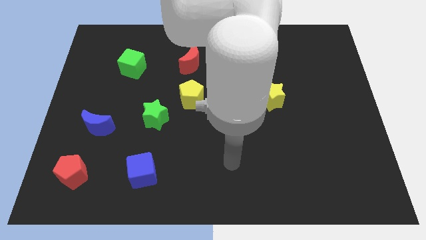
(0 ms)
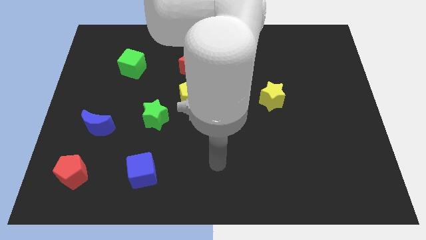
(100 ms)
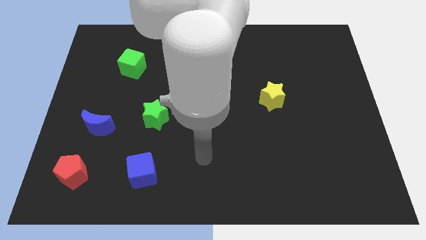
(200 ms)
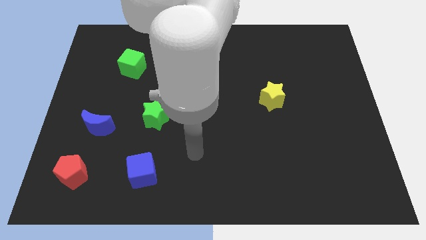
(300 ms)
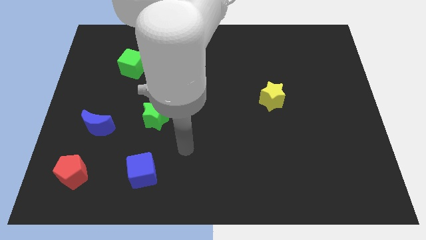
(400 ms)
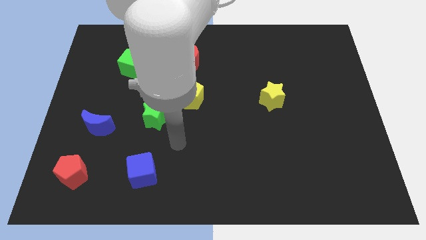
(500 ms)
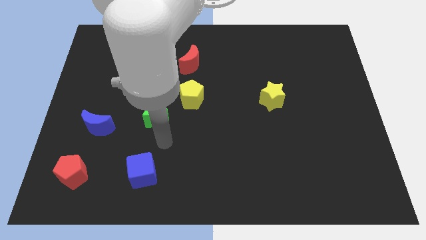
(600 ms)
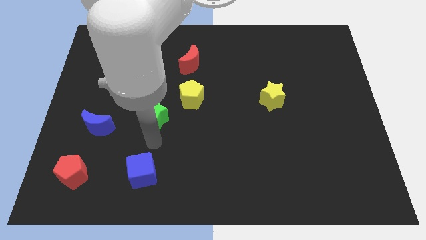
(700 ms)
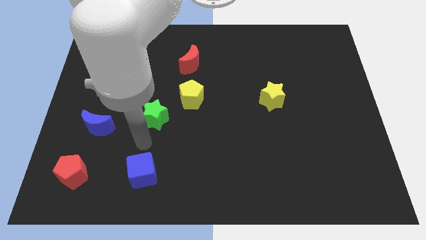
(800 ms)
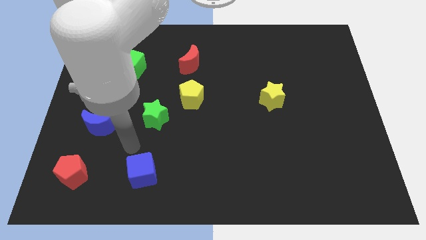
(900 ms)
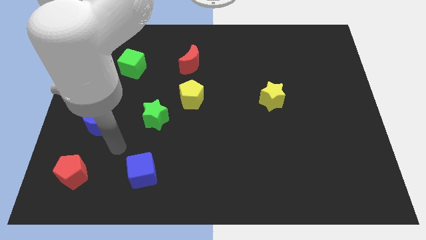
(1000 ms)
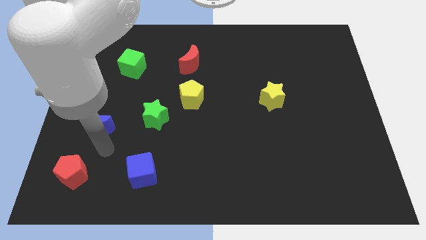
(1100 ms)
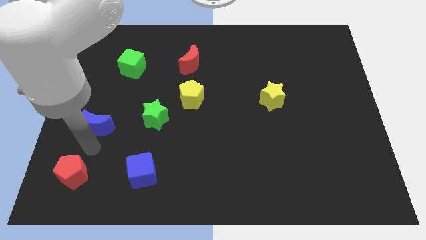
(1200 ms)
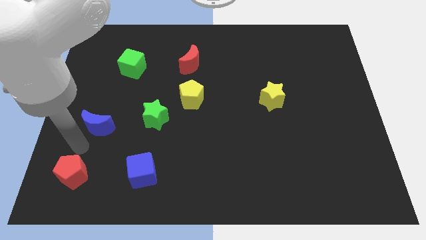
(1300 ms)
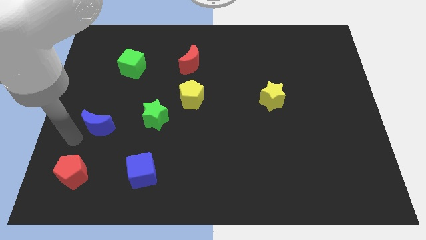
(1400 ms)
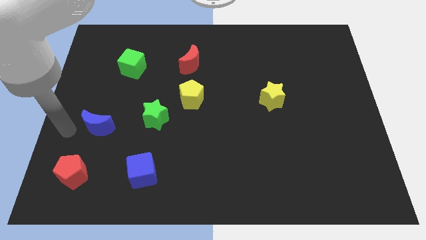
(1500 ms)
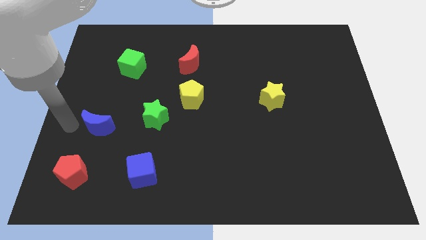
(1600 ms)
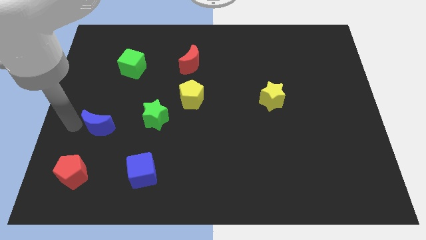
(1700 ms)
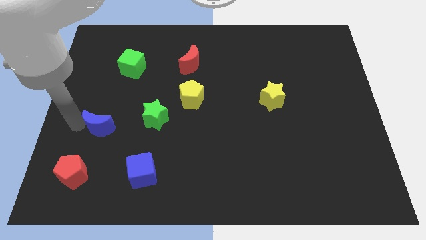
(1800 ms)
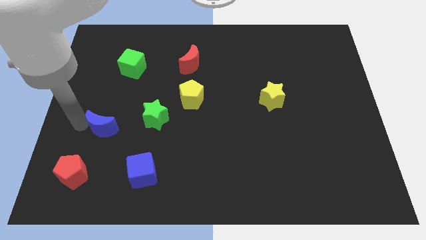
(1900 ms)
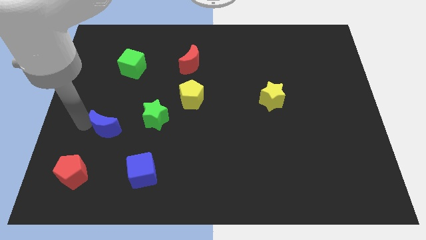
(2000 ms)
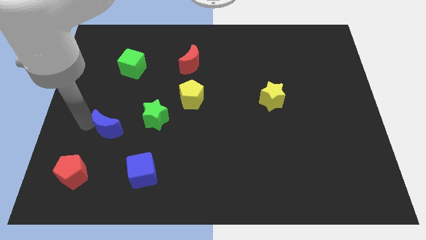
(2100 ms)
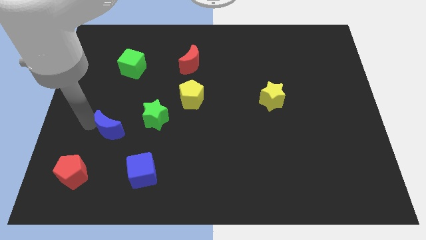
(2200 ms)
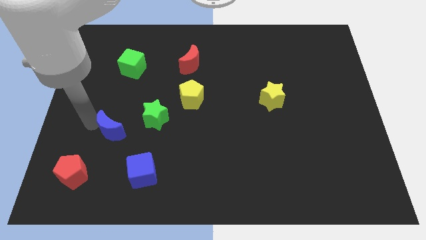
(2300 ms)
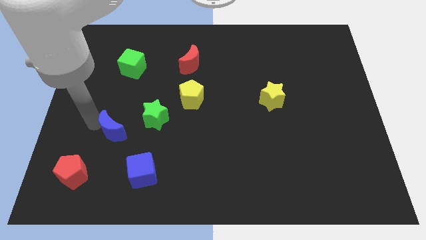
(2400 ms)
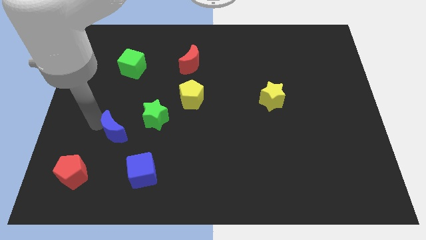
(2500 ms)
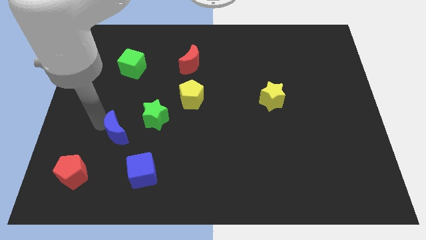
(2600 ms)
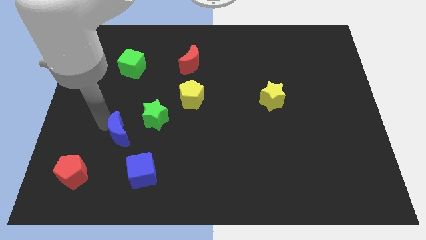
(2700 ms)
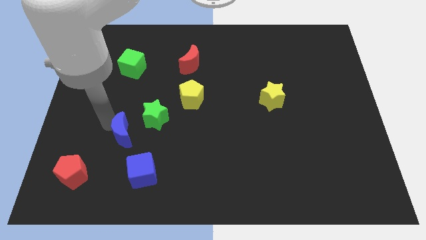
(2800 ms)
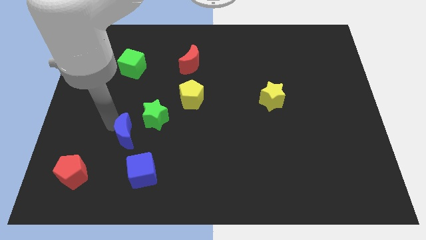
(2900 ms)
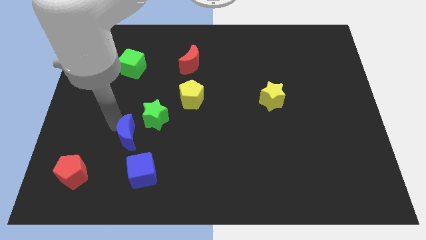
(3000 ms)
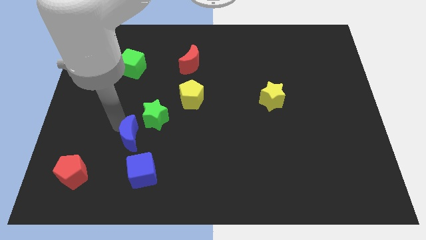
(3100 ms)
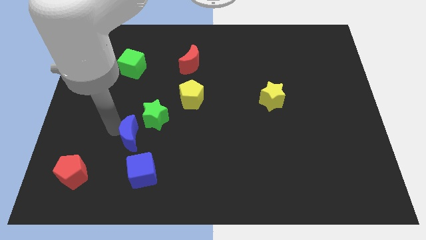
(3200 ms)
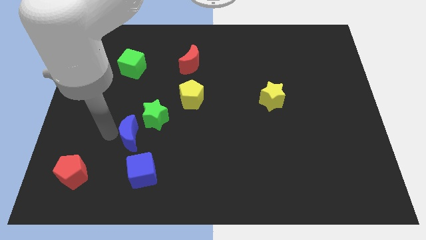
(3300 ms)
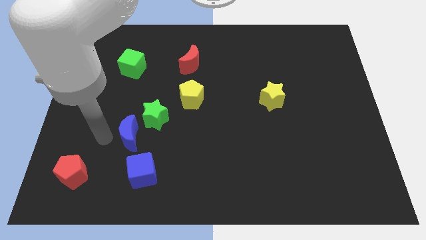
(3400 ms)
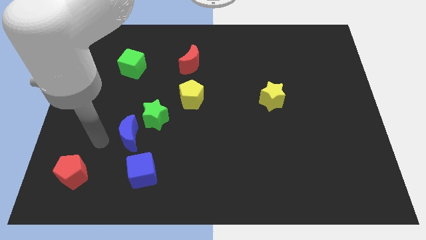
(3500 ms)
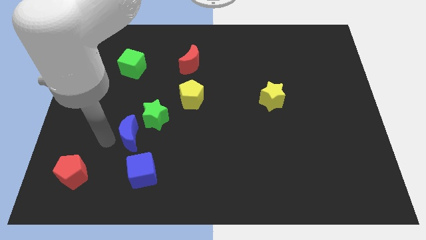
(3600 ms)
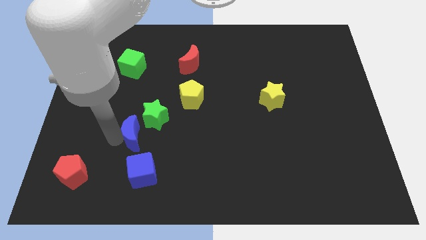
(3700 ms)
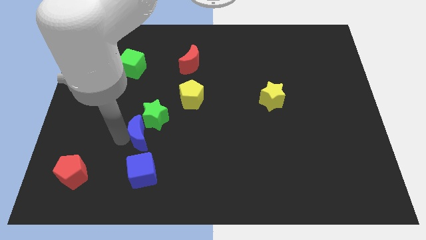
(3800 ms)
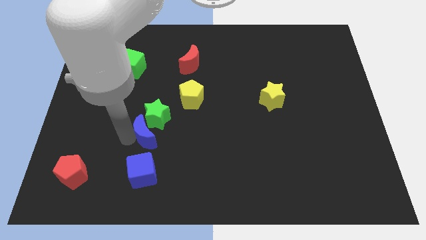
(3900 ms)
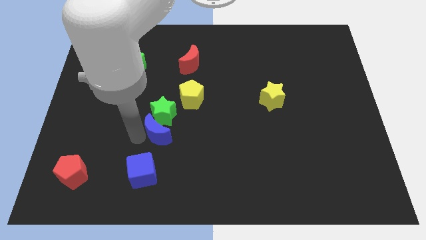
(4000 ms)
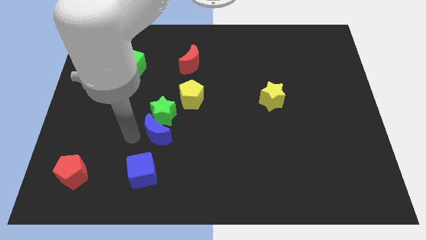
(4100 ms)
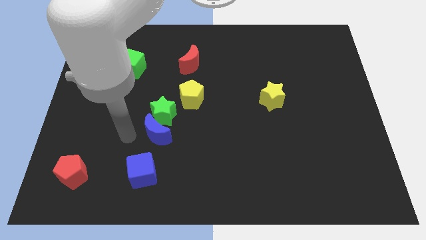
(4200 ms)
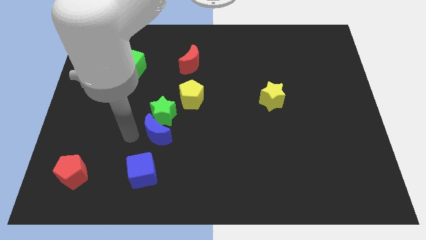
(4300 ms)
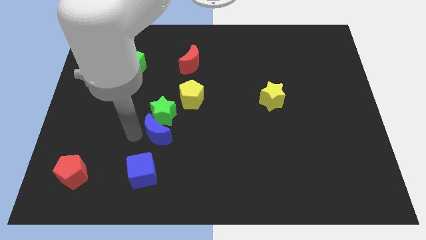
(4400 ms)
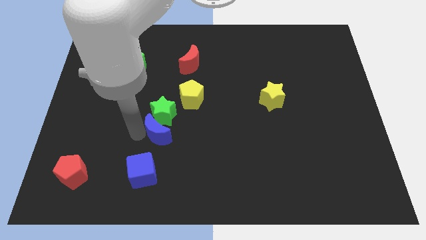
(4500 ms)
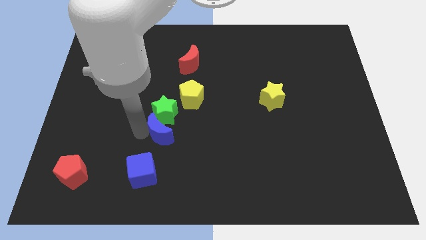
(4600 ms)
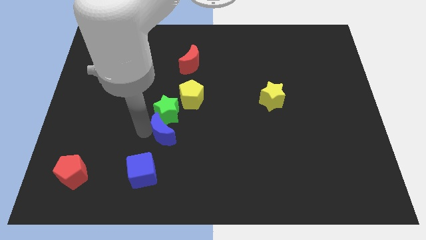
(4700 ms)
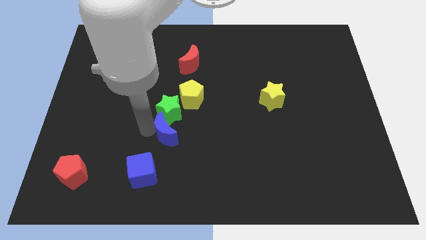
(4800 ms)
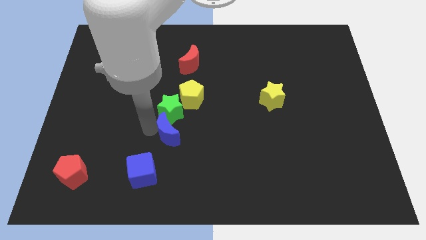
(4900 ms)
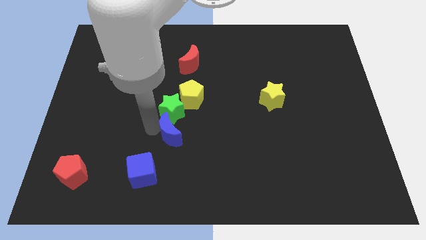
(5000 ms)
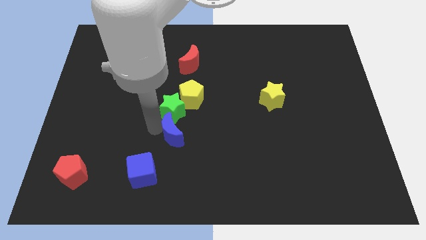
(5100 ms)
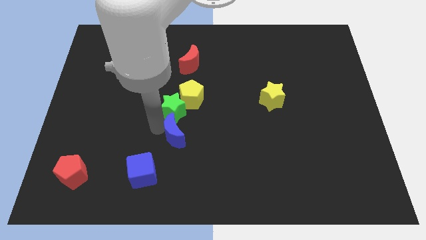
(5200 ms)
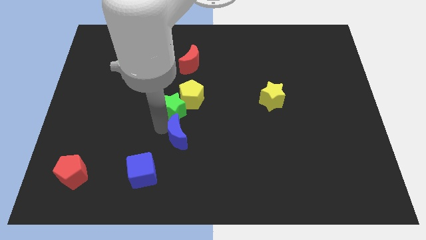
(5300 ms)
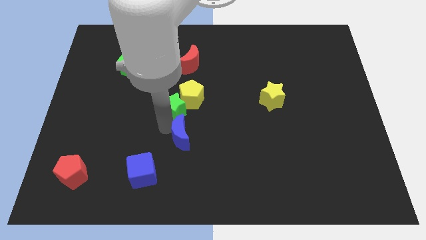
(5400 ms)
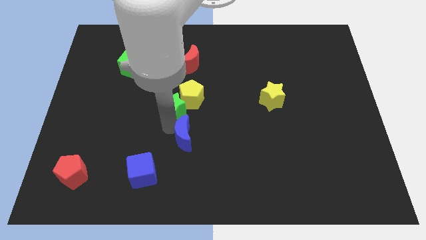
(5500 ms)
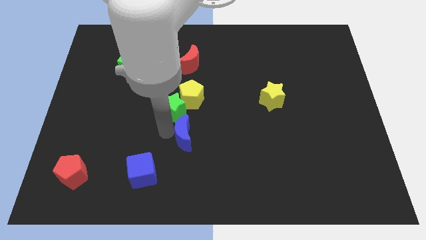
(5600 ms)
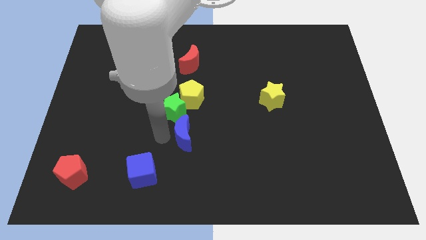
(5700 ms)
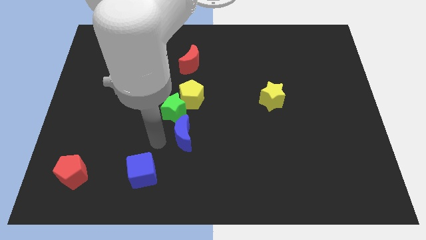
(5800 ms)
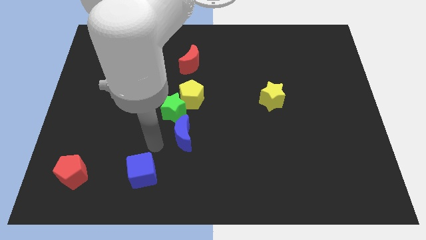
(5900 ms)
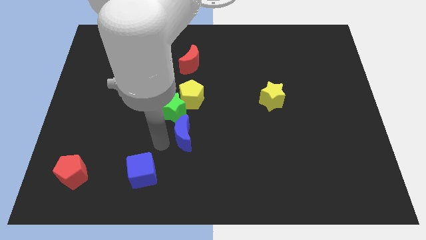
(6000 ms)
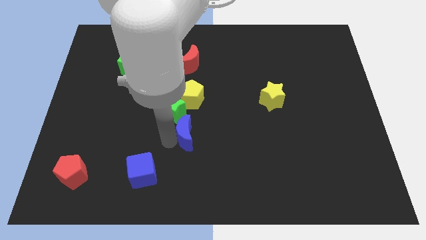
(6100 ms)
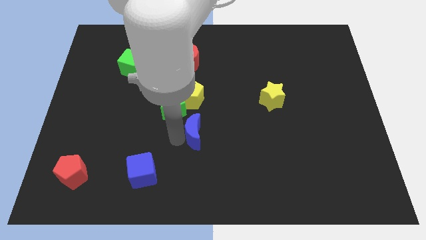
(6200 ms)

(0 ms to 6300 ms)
move the blue moon right

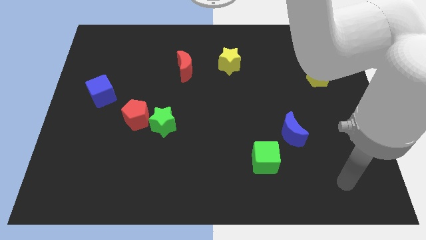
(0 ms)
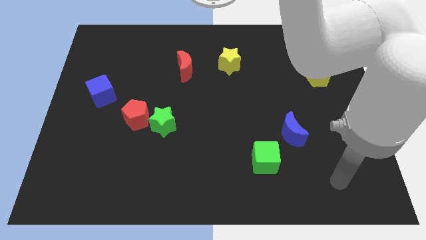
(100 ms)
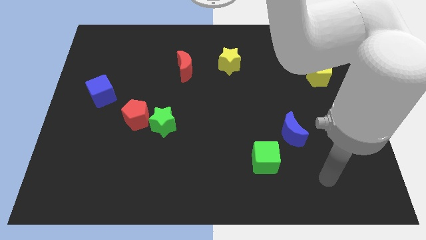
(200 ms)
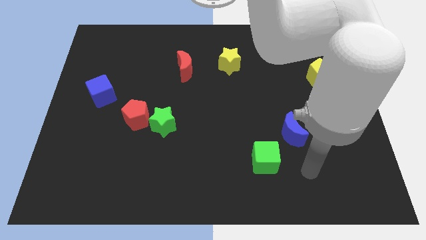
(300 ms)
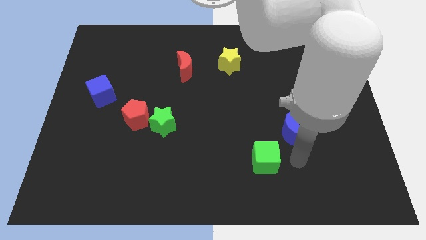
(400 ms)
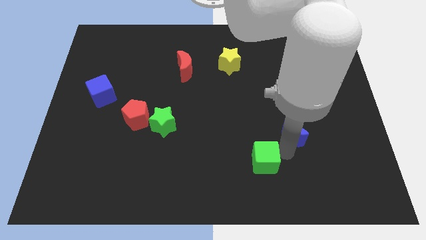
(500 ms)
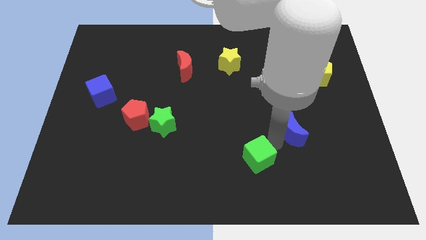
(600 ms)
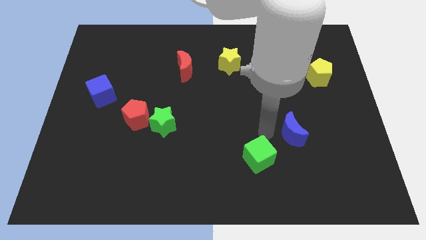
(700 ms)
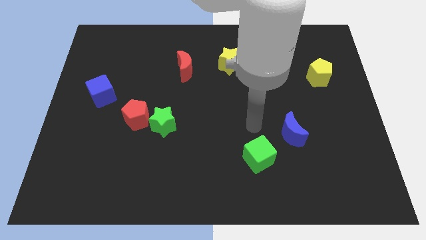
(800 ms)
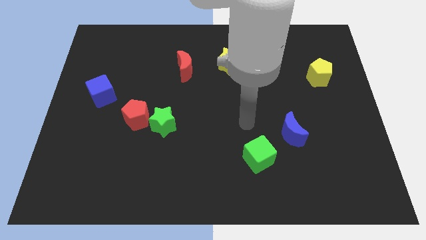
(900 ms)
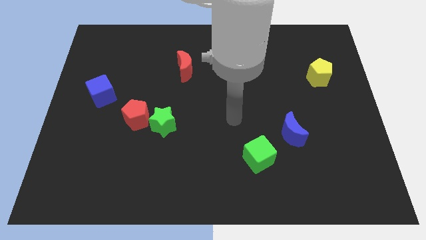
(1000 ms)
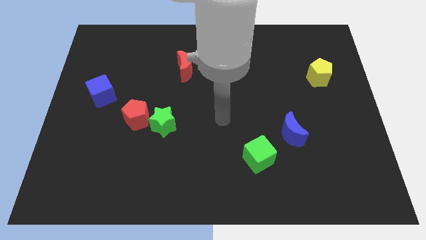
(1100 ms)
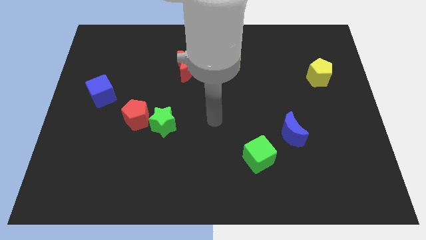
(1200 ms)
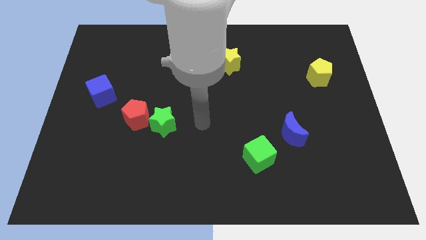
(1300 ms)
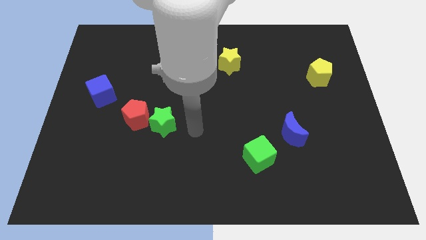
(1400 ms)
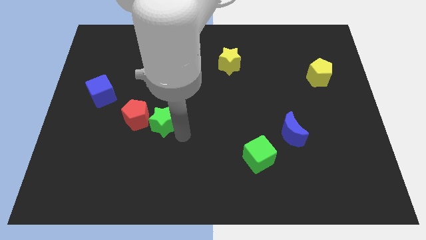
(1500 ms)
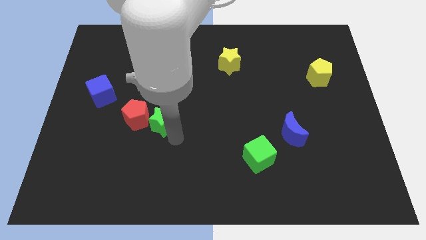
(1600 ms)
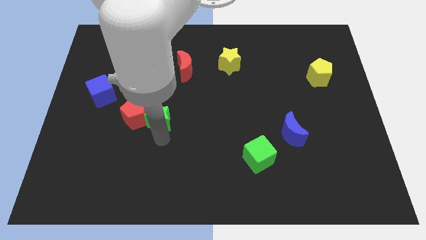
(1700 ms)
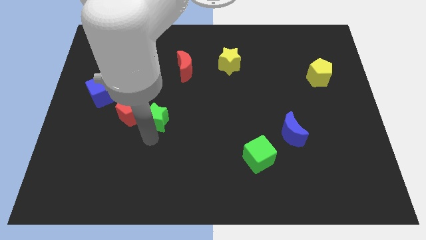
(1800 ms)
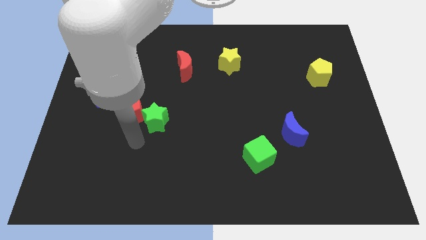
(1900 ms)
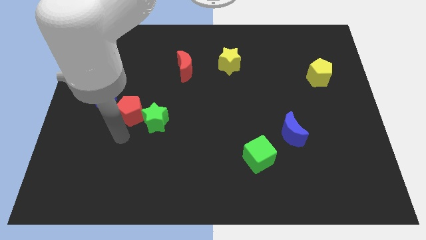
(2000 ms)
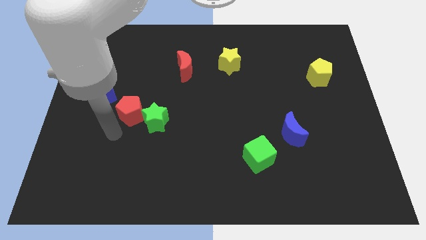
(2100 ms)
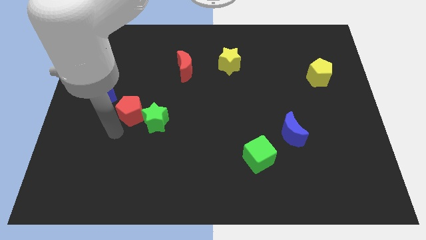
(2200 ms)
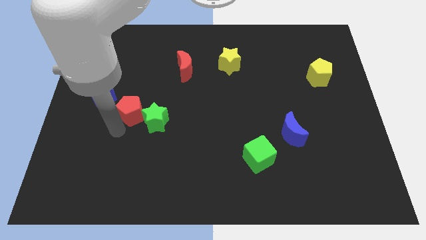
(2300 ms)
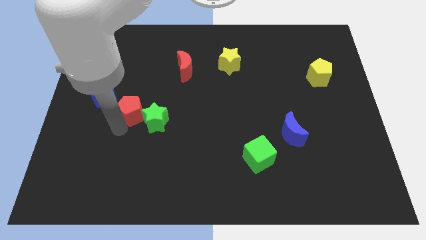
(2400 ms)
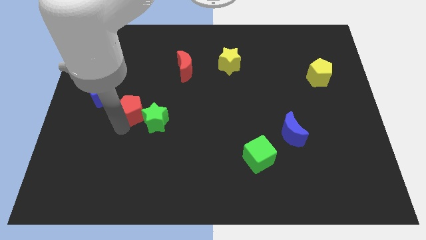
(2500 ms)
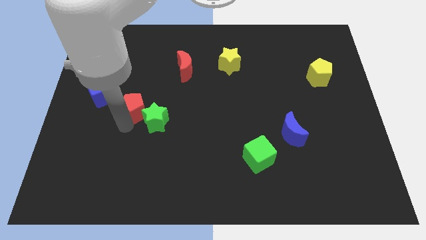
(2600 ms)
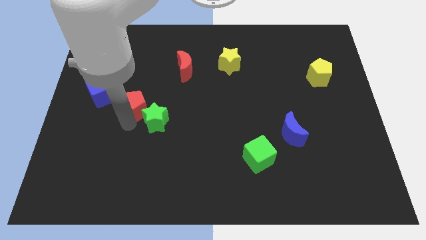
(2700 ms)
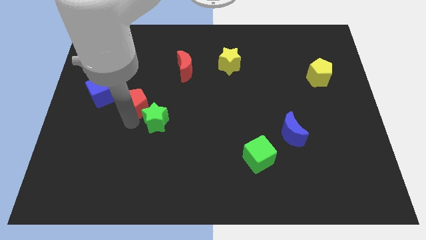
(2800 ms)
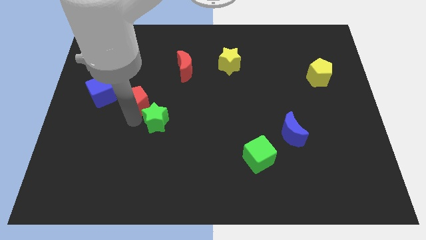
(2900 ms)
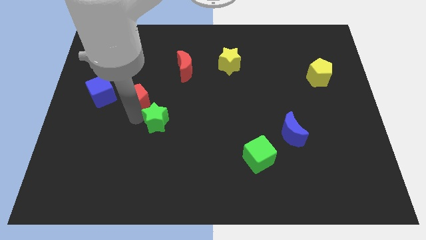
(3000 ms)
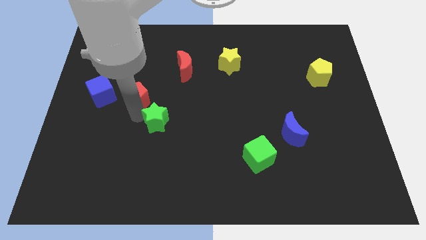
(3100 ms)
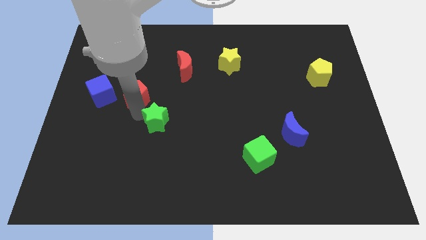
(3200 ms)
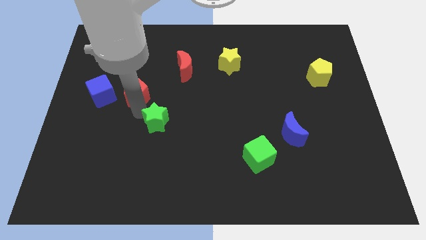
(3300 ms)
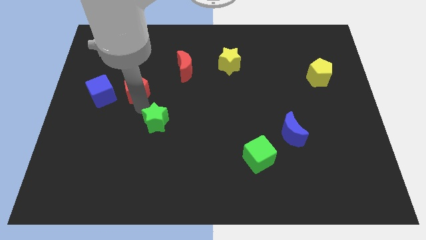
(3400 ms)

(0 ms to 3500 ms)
slide the red pentagon a little bit upwards
